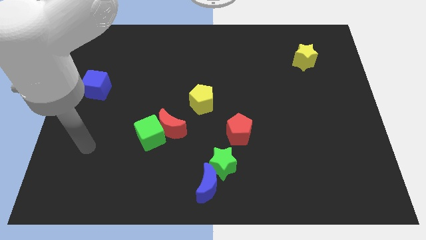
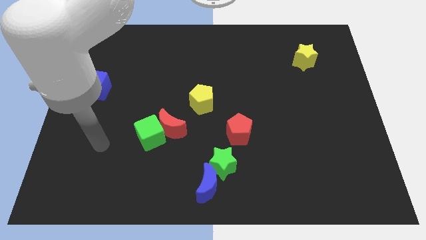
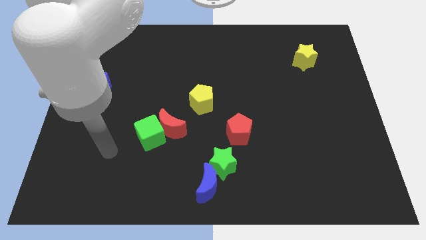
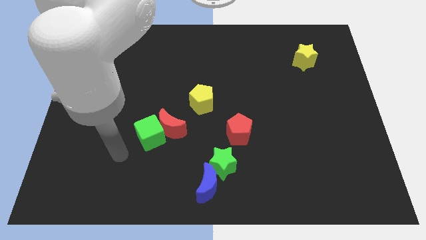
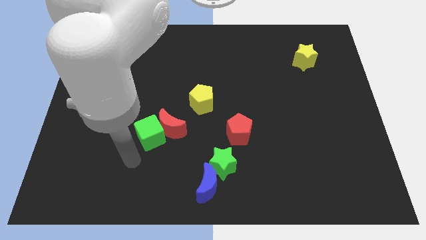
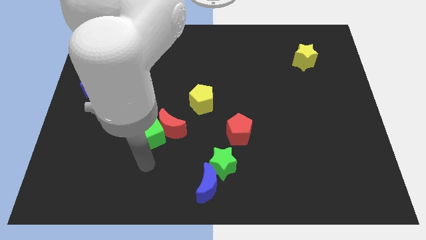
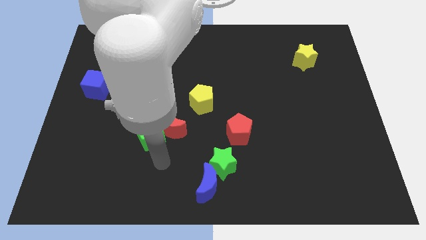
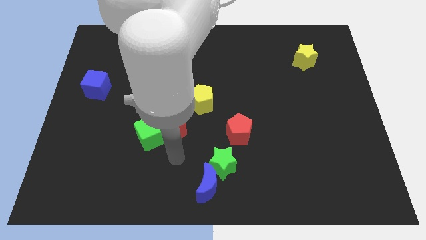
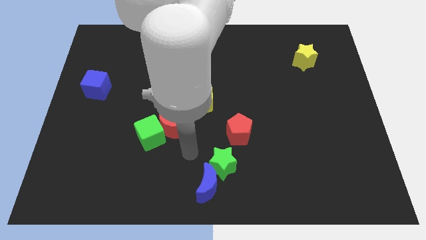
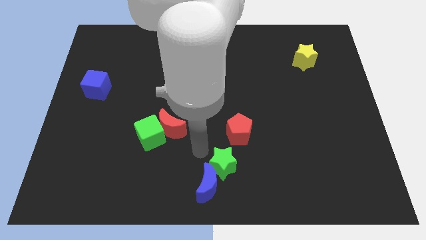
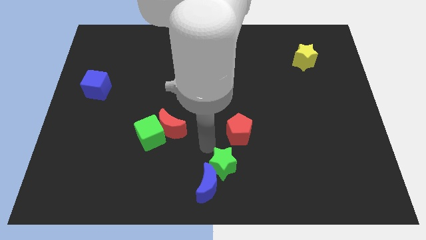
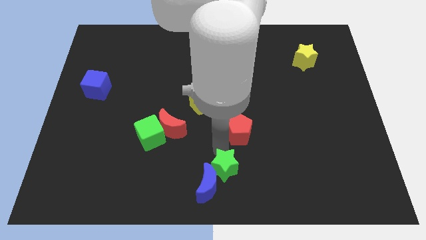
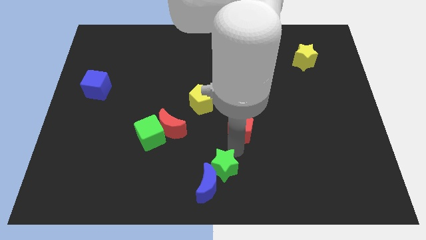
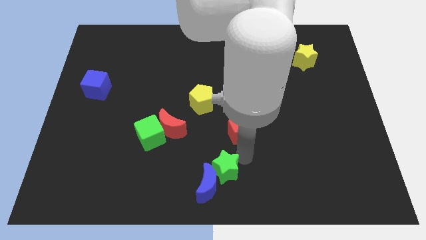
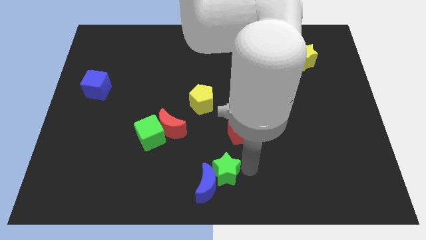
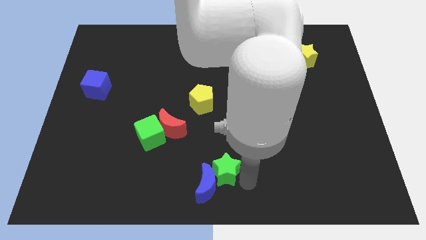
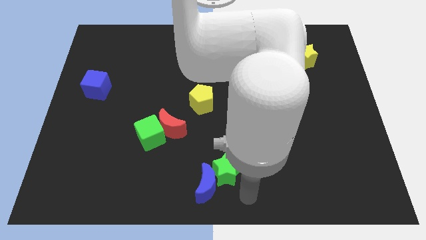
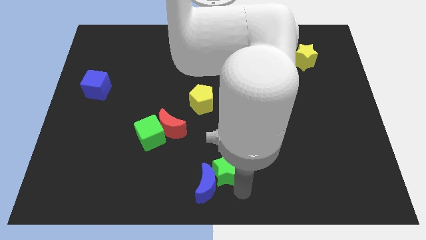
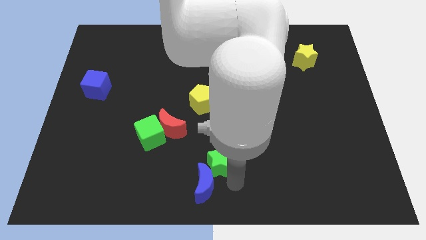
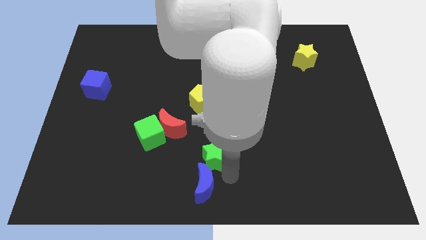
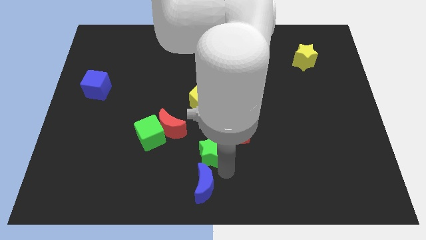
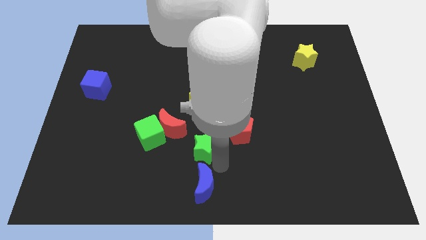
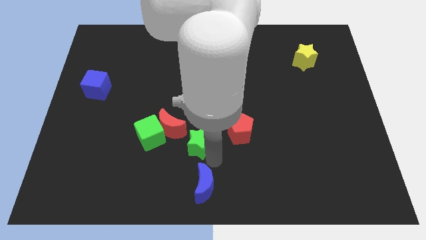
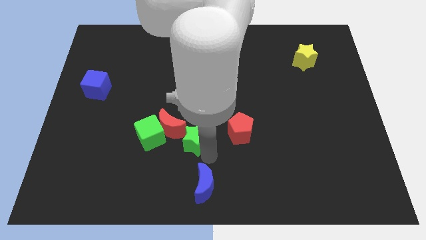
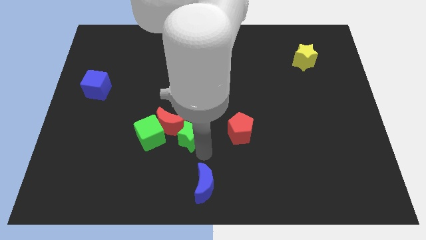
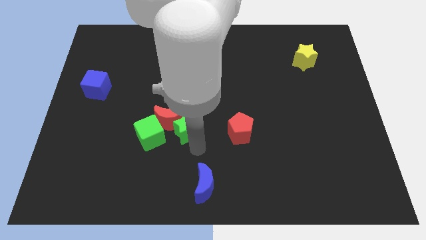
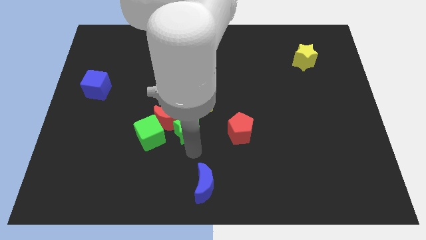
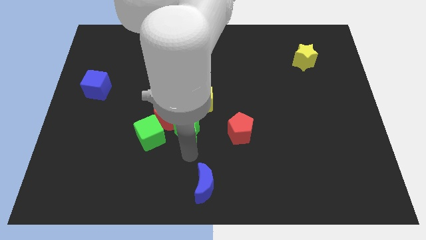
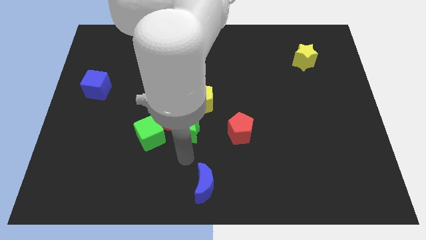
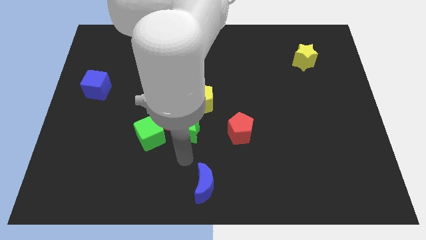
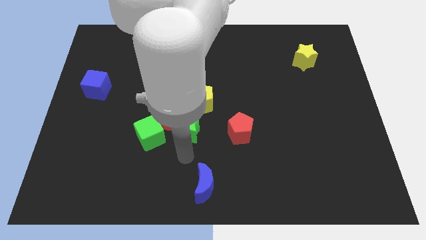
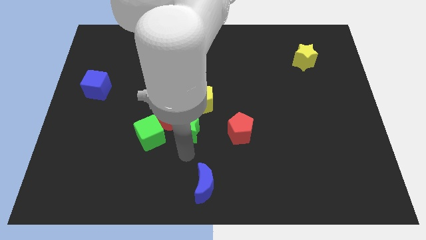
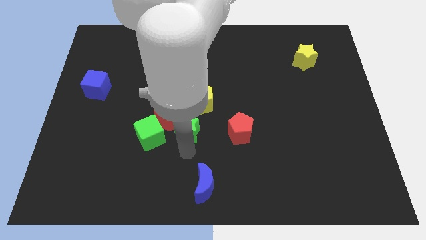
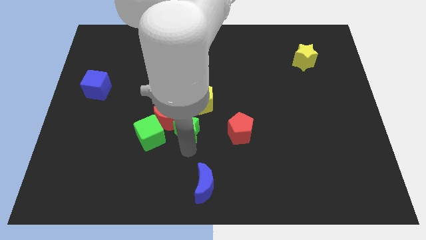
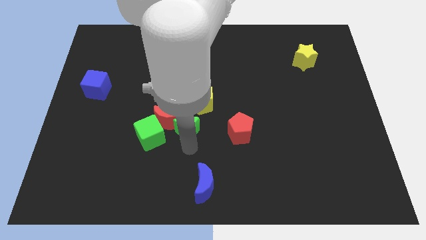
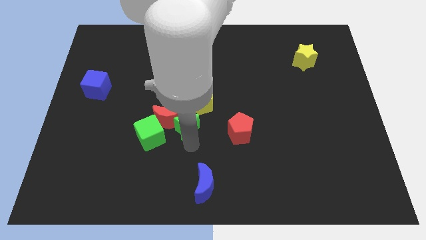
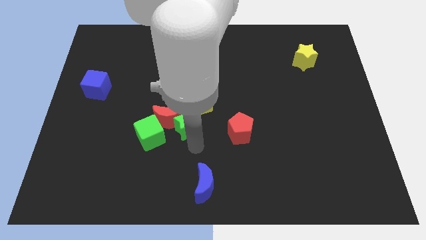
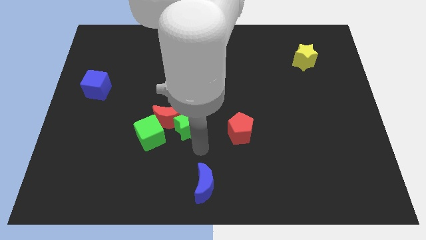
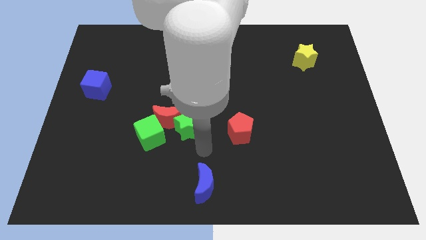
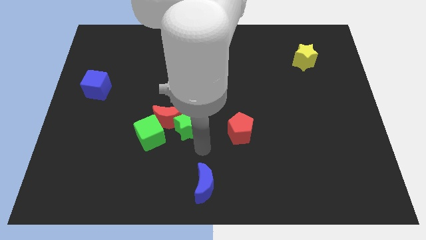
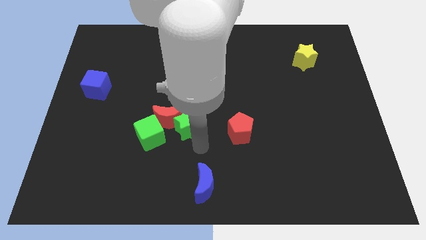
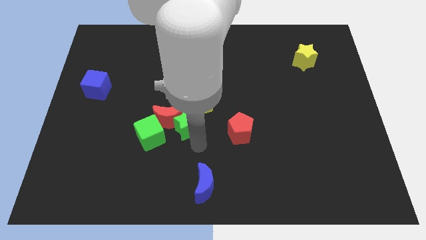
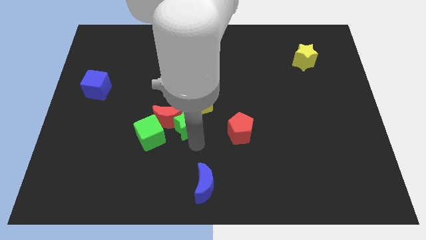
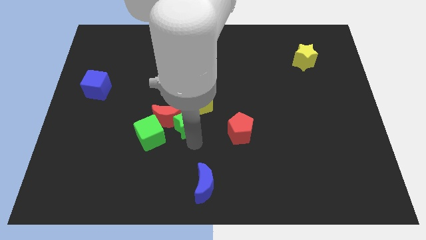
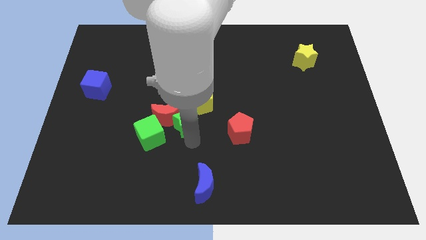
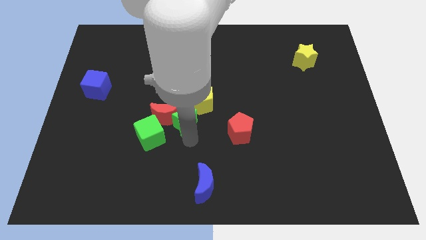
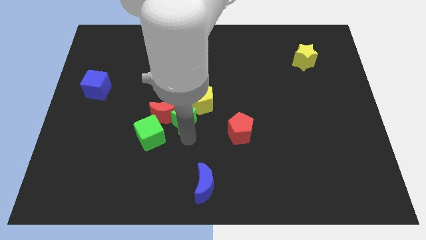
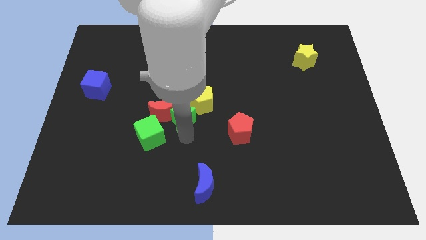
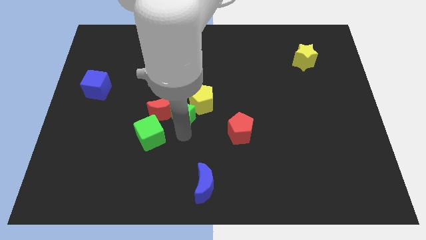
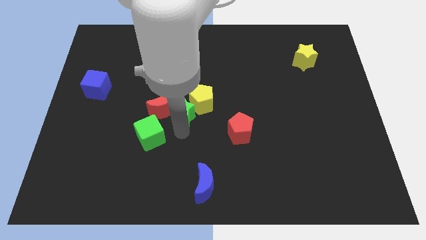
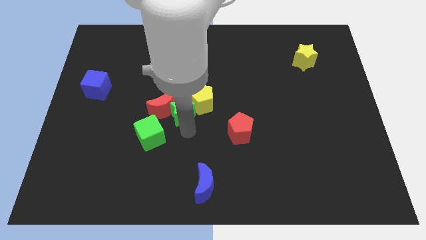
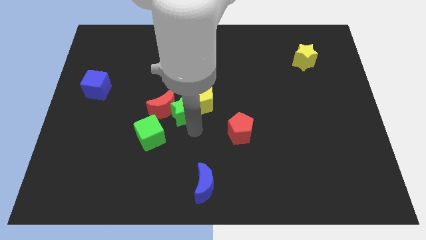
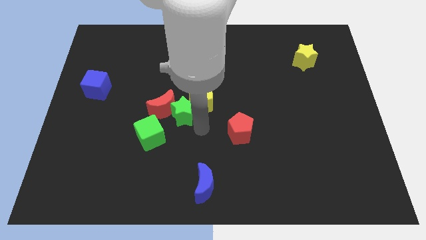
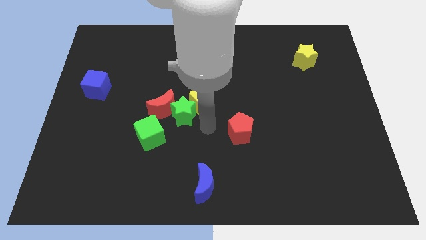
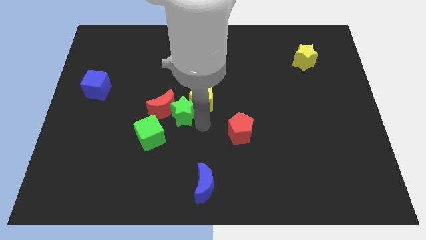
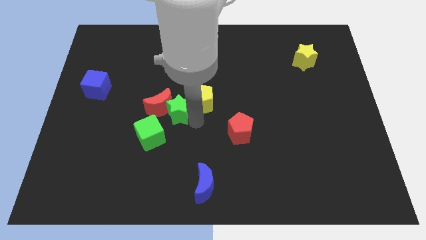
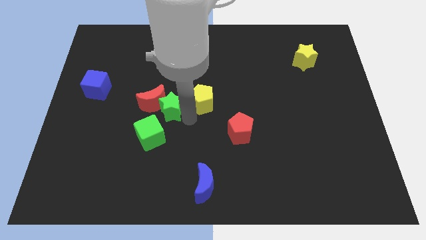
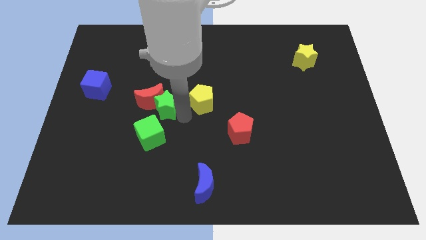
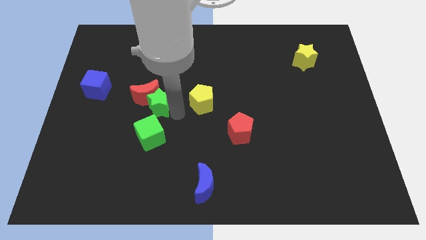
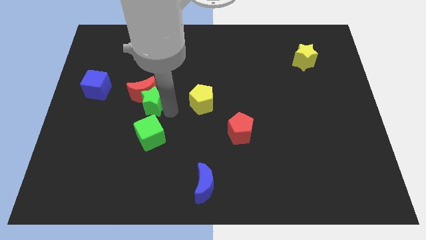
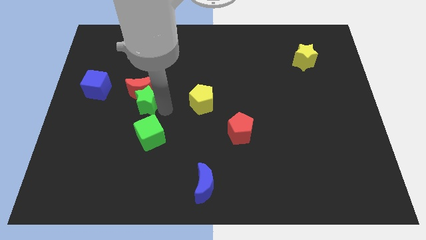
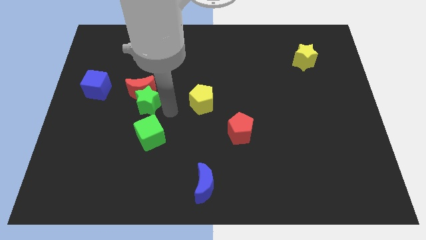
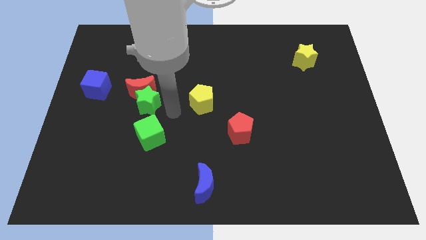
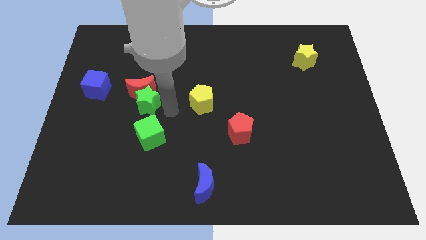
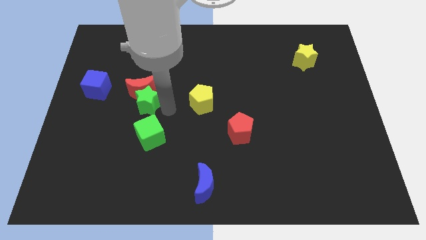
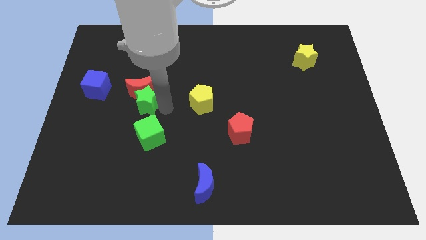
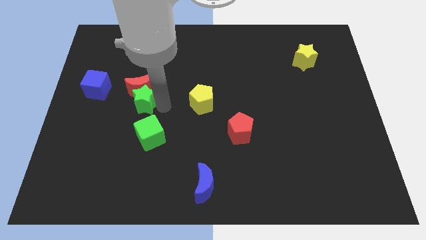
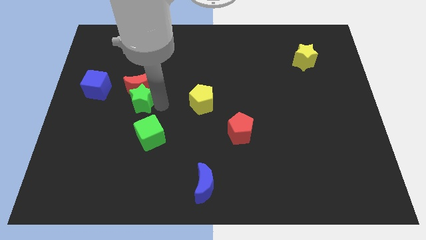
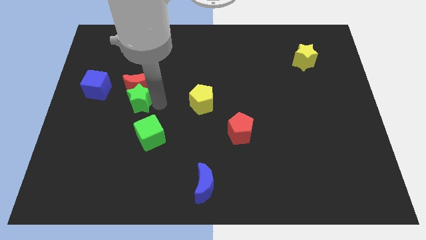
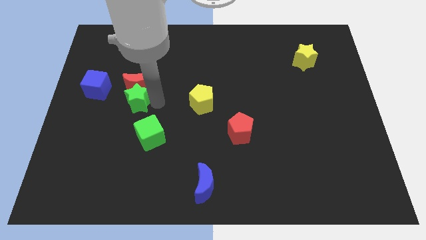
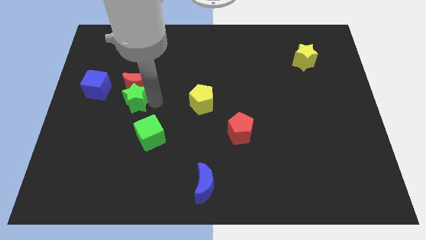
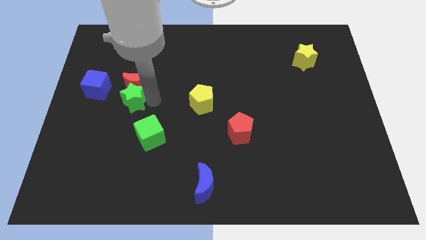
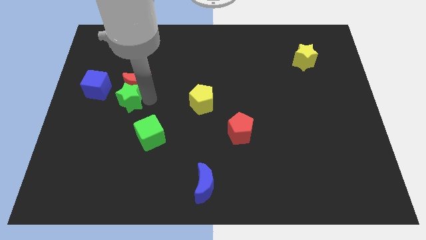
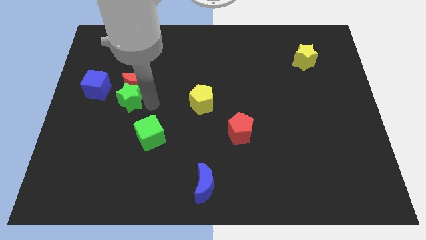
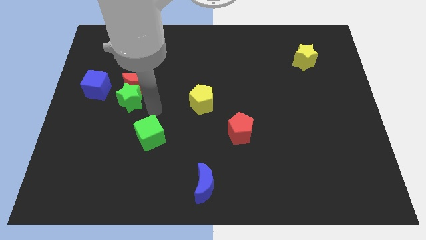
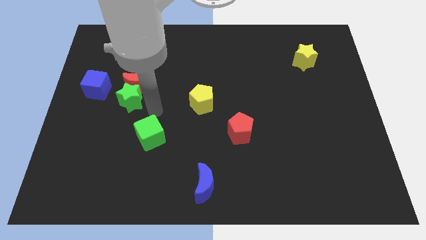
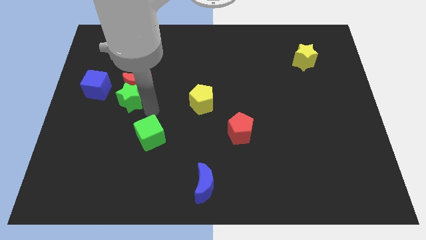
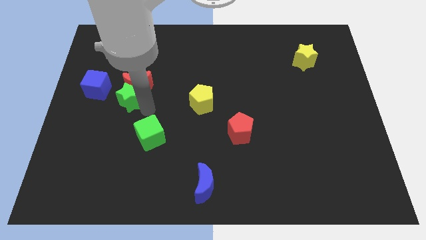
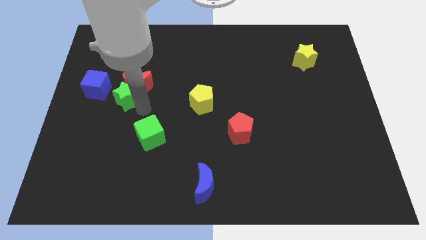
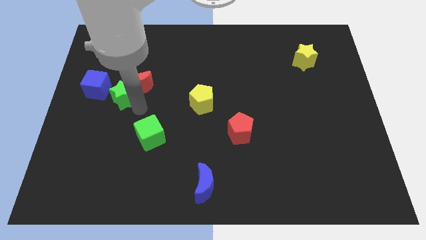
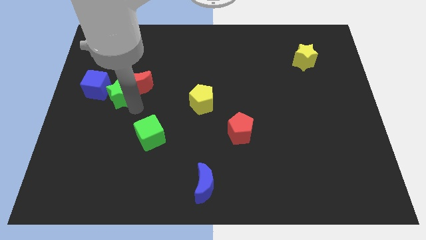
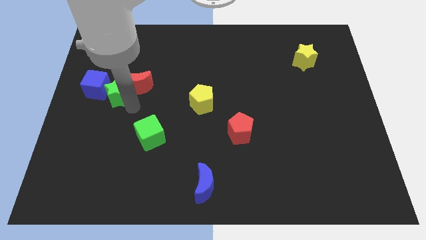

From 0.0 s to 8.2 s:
push the green star towards the blue cube
